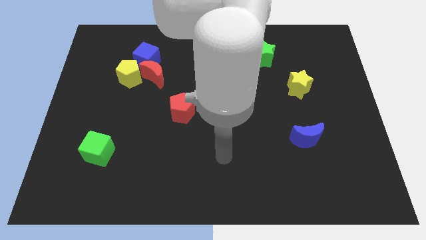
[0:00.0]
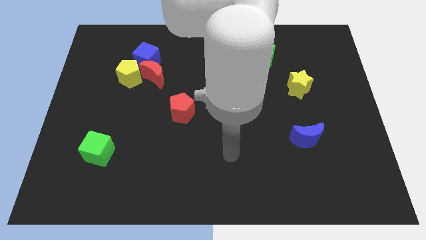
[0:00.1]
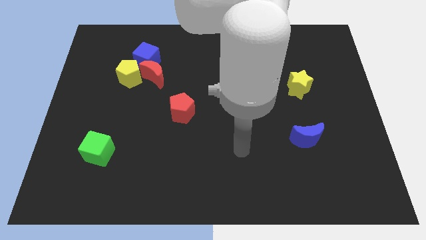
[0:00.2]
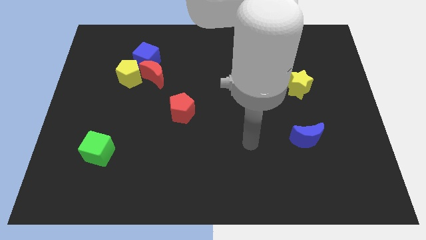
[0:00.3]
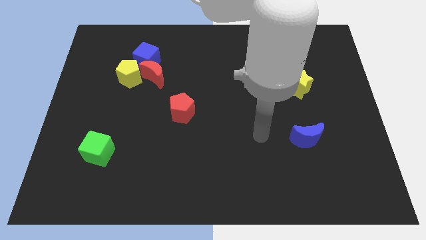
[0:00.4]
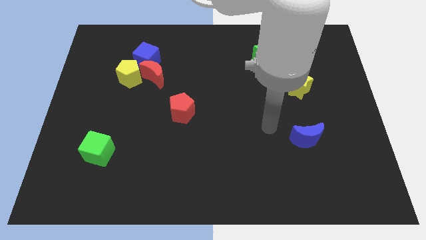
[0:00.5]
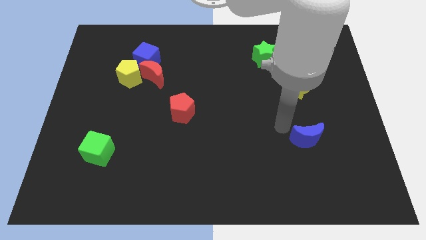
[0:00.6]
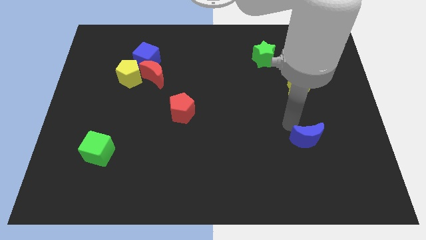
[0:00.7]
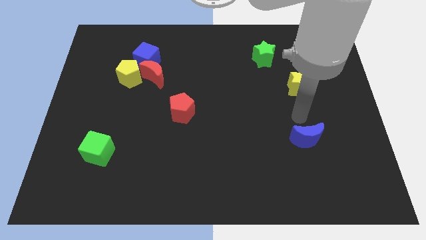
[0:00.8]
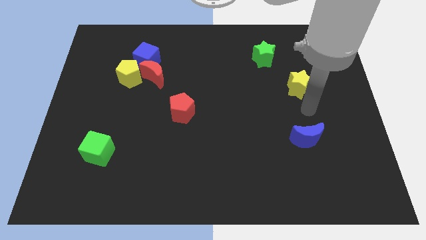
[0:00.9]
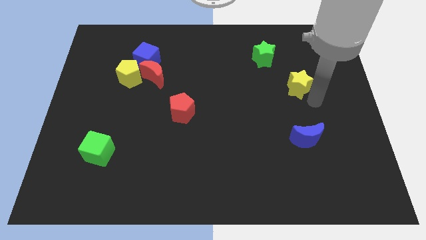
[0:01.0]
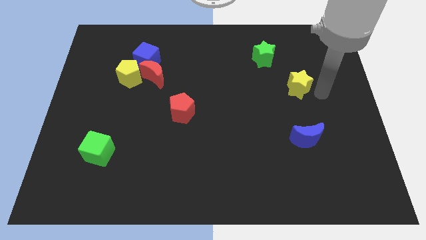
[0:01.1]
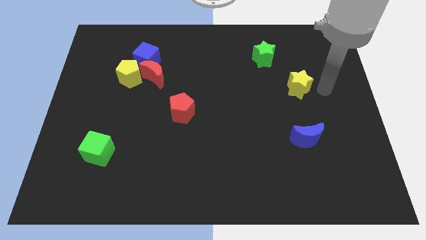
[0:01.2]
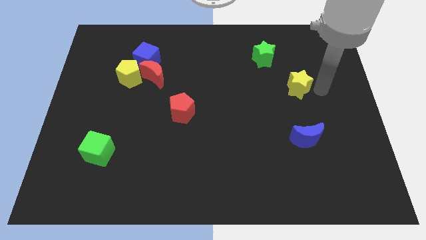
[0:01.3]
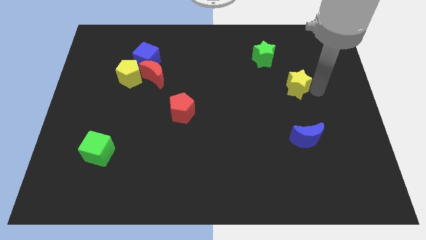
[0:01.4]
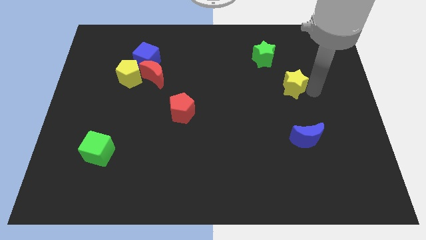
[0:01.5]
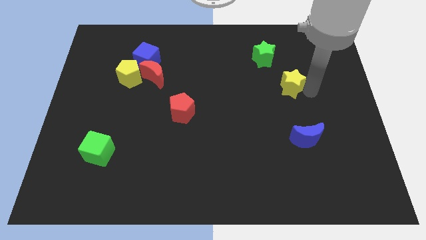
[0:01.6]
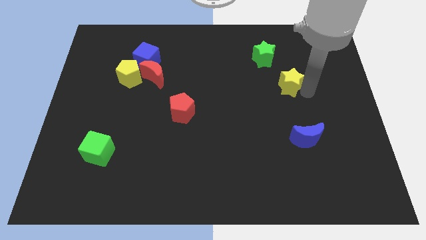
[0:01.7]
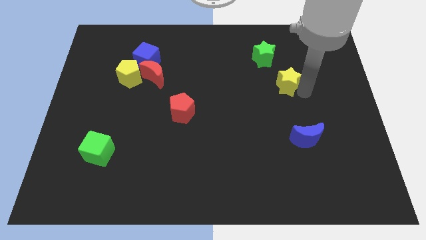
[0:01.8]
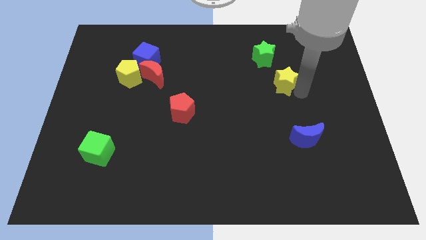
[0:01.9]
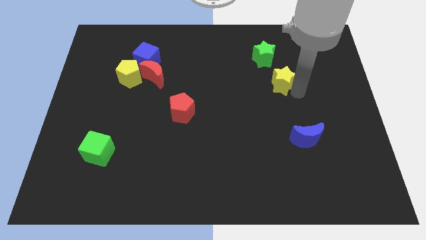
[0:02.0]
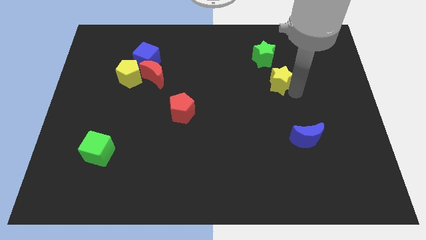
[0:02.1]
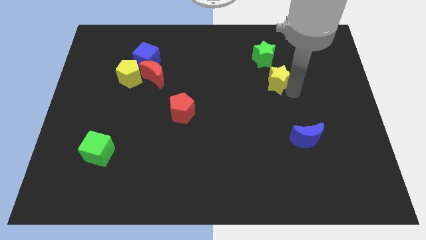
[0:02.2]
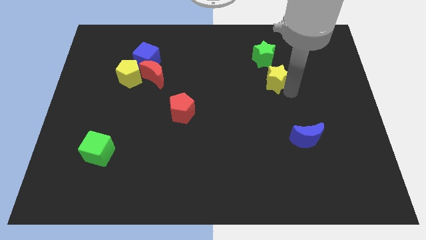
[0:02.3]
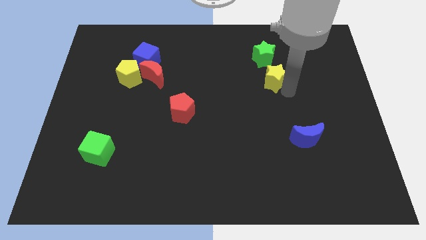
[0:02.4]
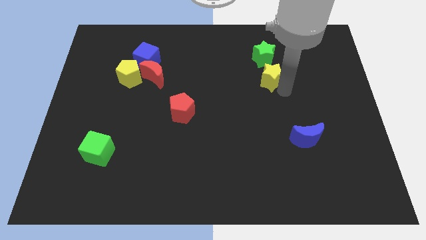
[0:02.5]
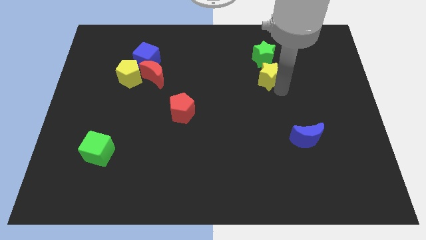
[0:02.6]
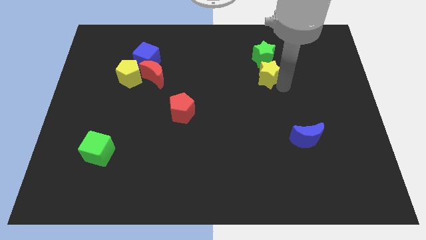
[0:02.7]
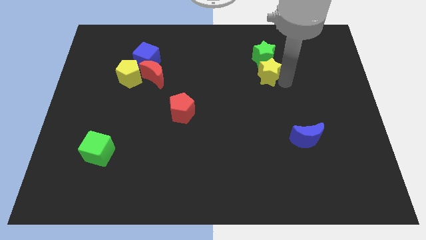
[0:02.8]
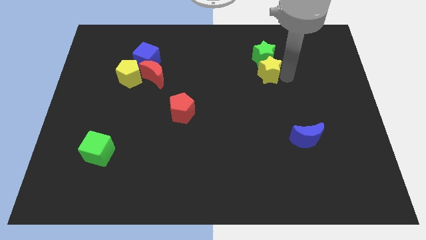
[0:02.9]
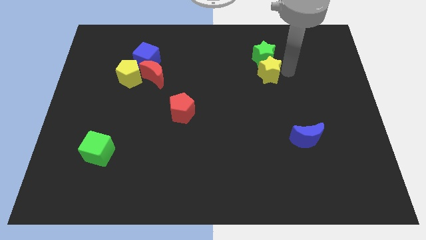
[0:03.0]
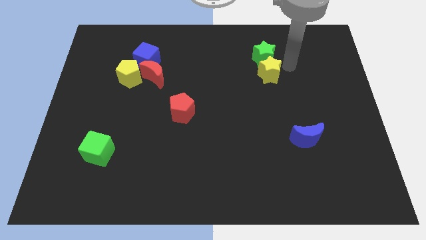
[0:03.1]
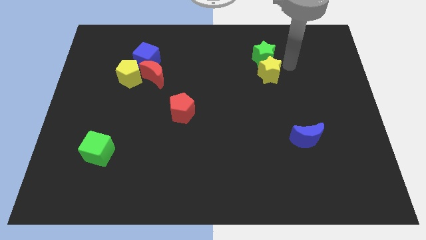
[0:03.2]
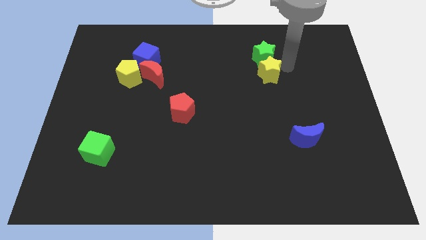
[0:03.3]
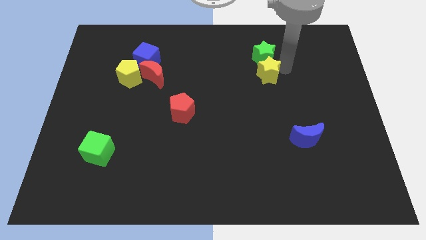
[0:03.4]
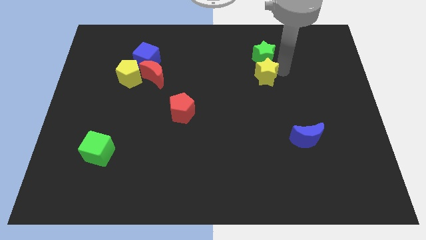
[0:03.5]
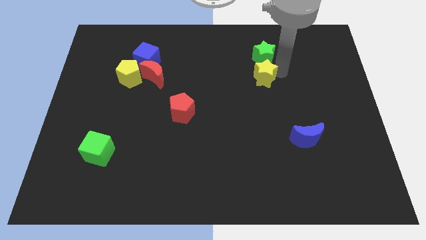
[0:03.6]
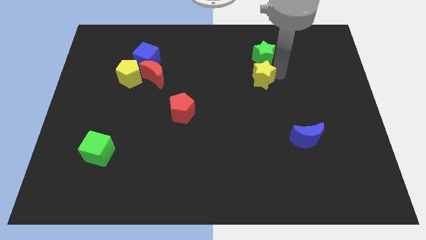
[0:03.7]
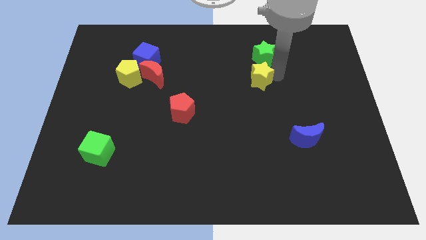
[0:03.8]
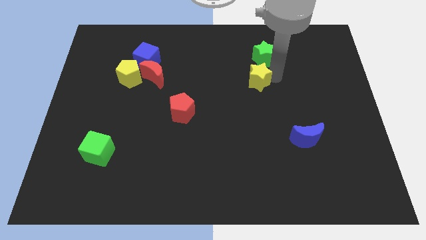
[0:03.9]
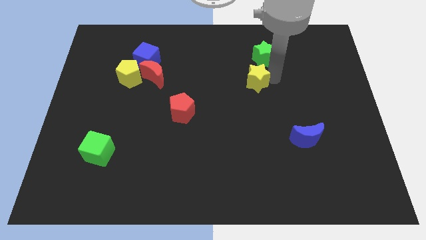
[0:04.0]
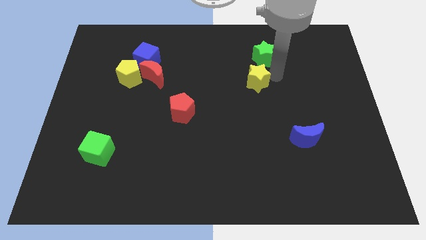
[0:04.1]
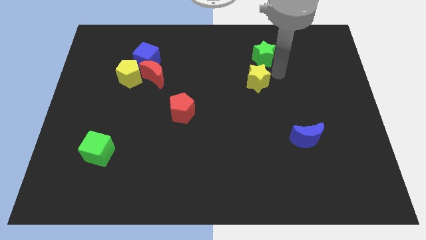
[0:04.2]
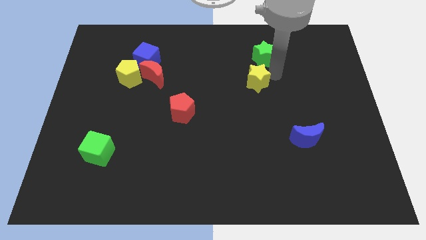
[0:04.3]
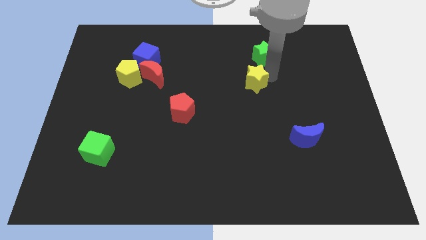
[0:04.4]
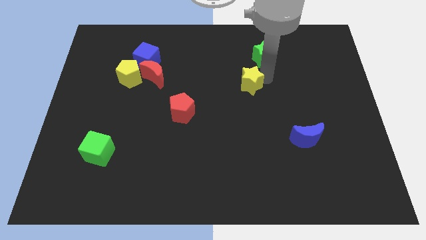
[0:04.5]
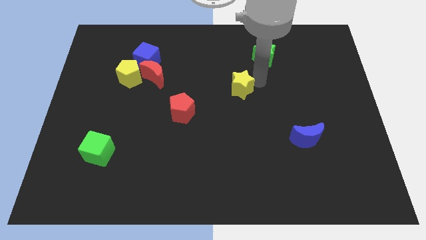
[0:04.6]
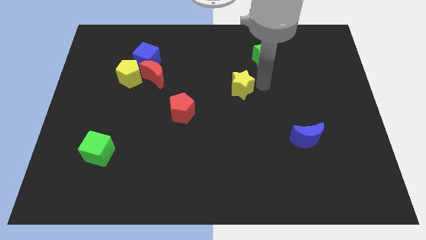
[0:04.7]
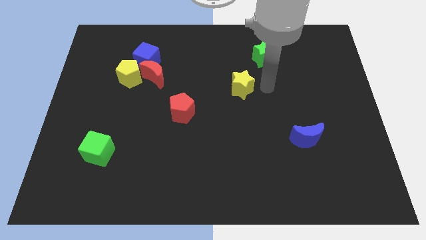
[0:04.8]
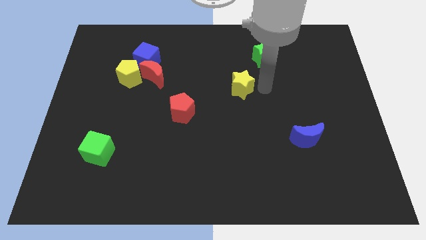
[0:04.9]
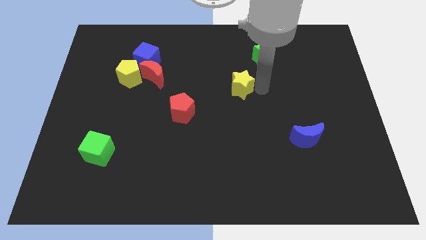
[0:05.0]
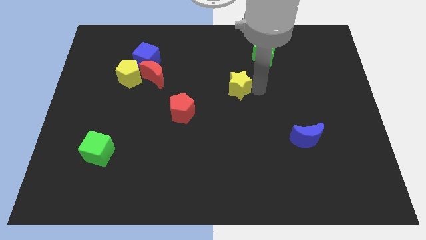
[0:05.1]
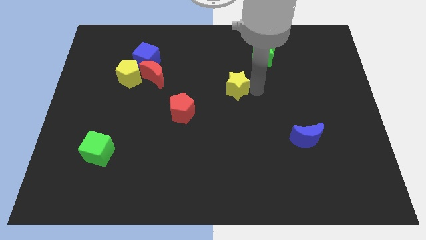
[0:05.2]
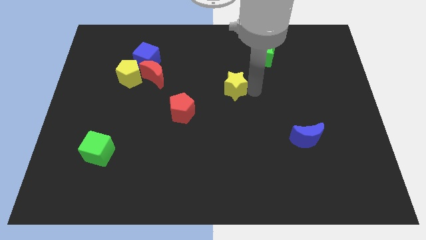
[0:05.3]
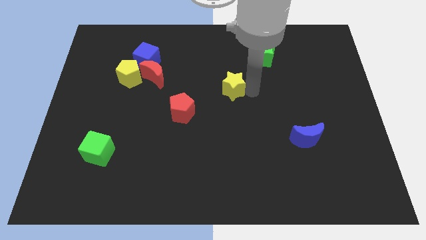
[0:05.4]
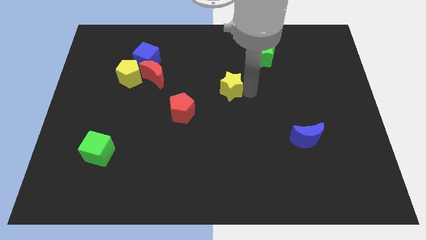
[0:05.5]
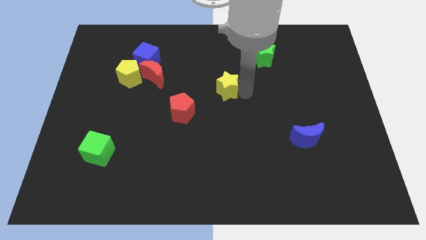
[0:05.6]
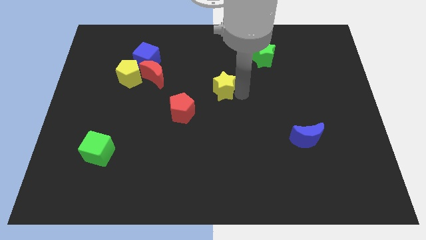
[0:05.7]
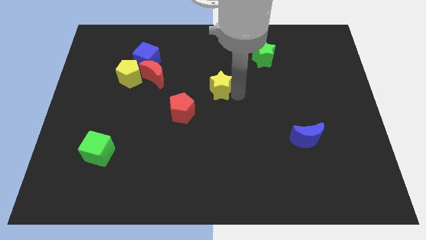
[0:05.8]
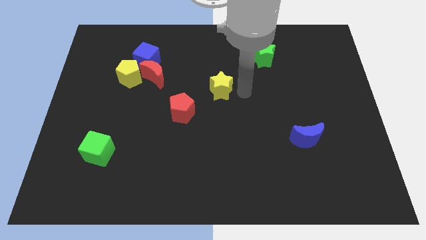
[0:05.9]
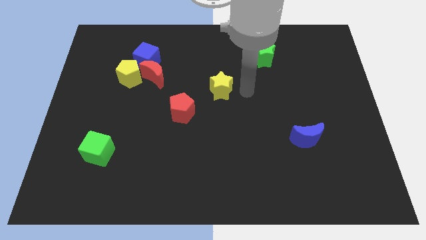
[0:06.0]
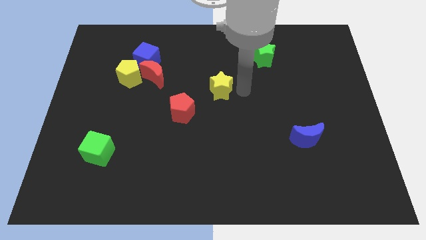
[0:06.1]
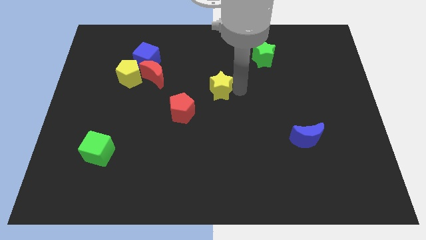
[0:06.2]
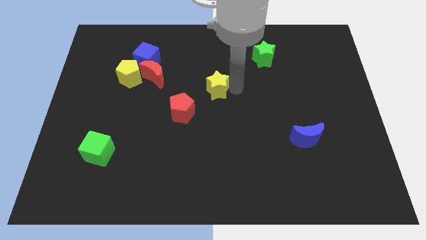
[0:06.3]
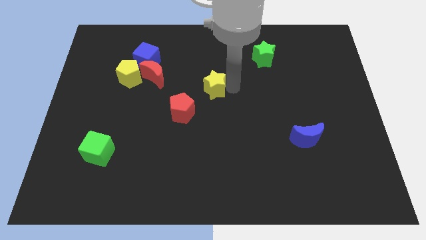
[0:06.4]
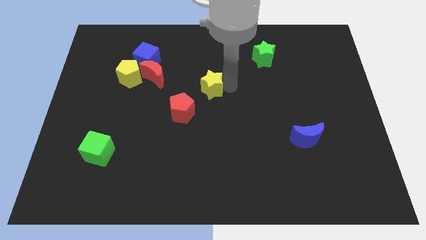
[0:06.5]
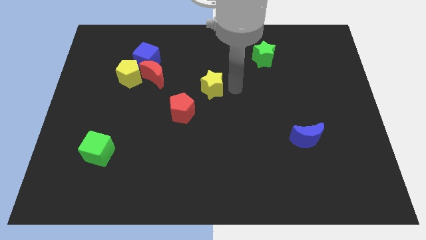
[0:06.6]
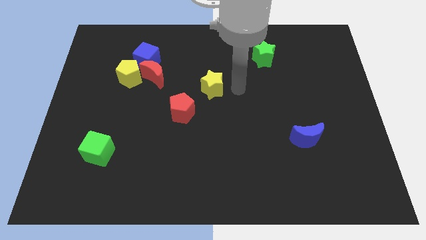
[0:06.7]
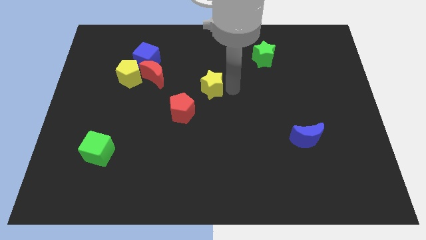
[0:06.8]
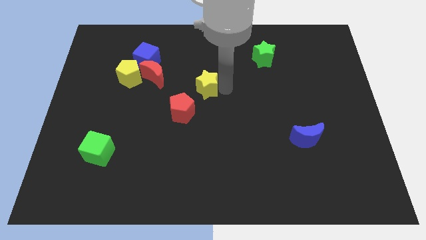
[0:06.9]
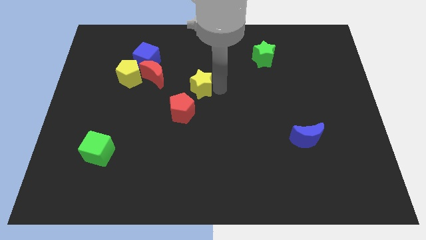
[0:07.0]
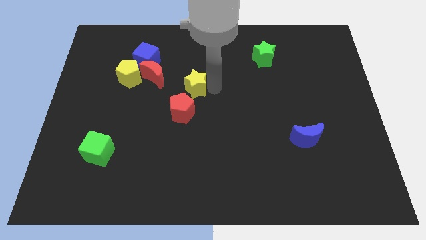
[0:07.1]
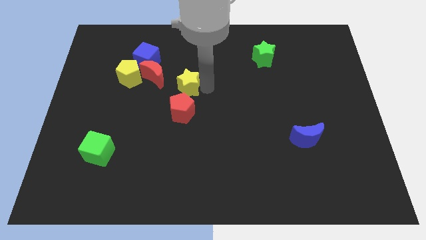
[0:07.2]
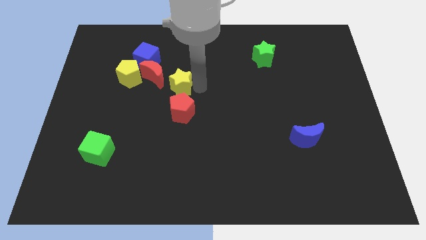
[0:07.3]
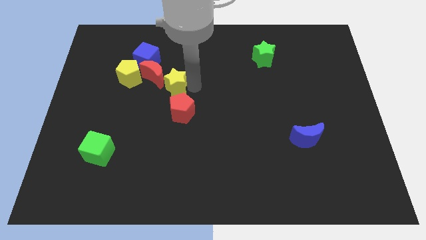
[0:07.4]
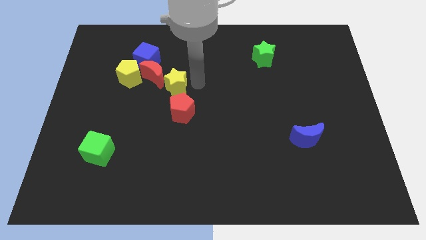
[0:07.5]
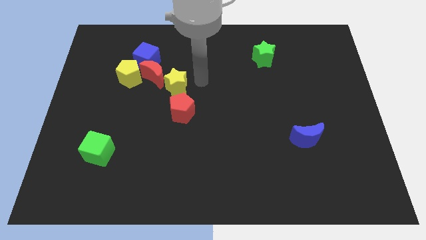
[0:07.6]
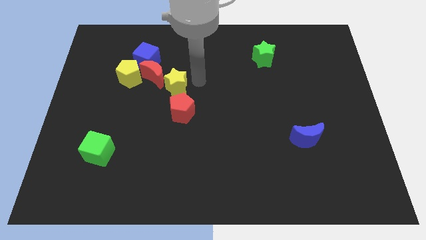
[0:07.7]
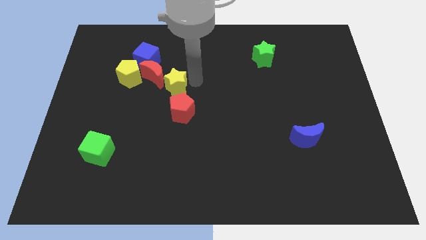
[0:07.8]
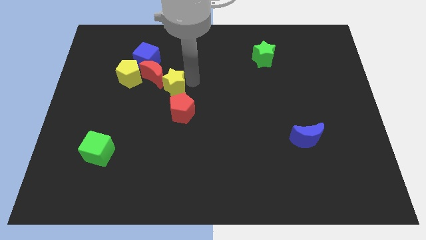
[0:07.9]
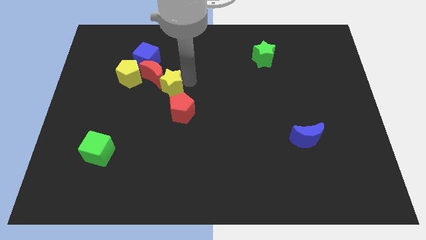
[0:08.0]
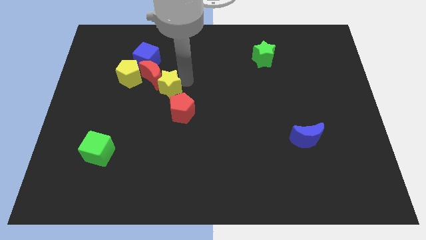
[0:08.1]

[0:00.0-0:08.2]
slide the yellow star to the bottom right side of the yellow pentagon
